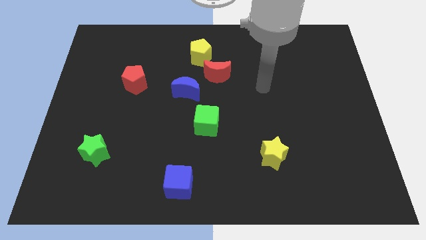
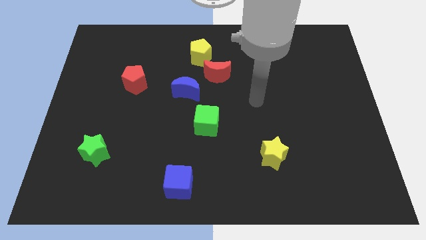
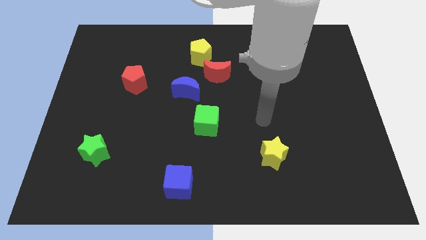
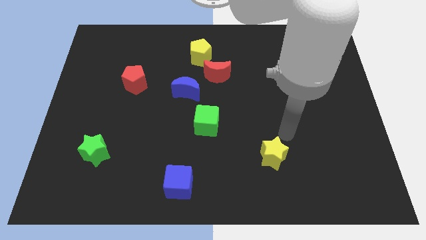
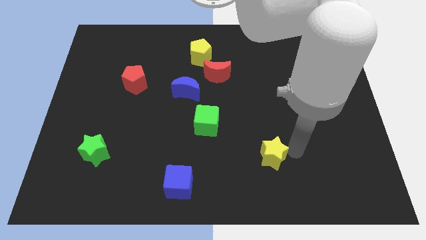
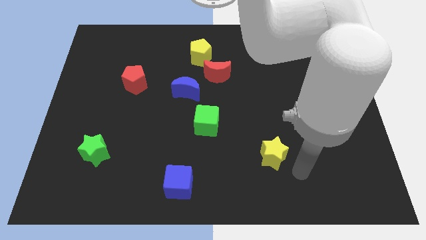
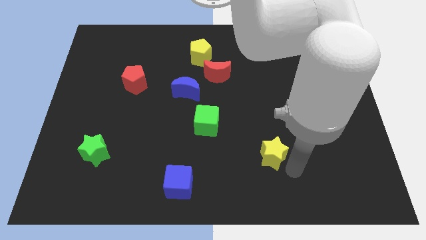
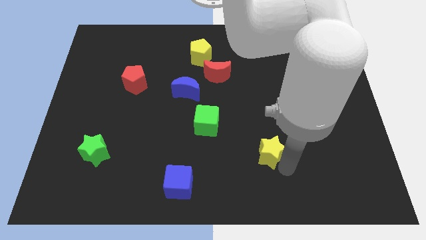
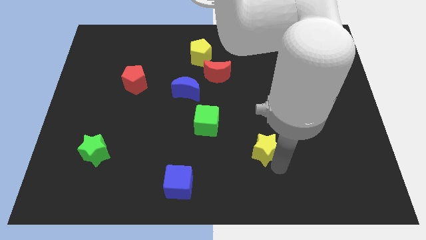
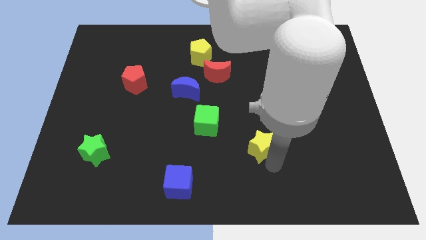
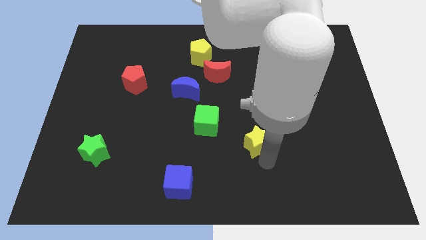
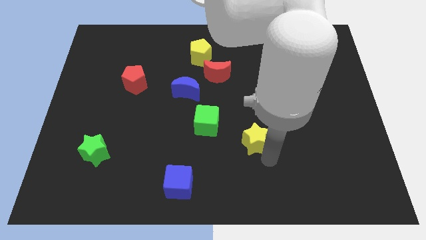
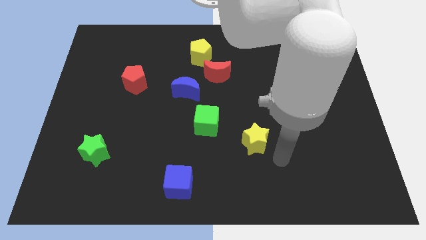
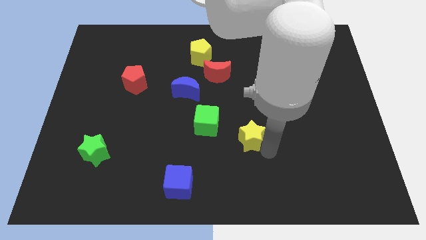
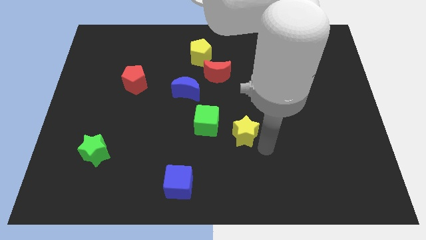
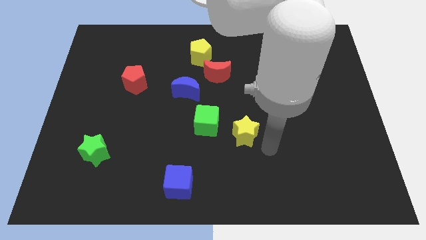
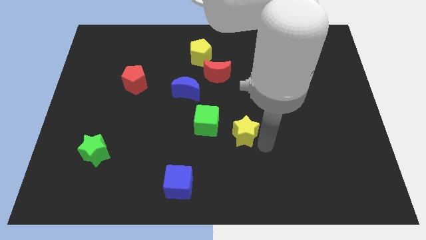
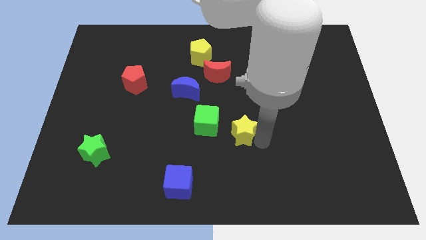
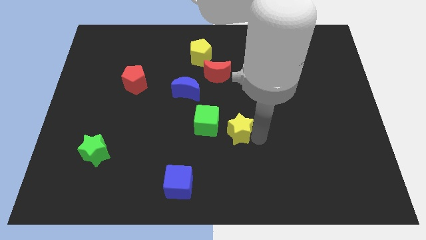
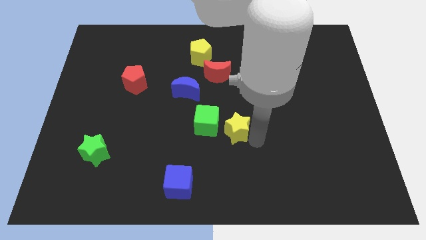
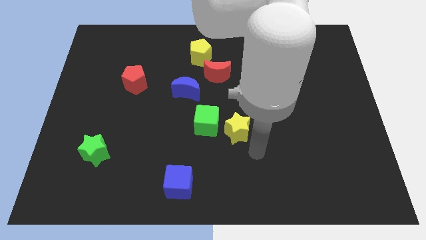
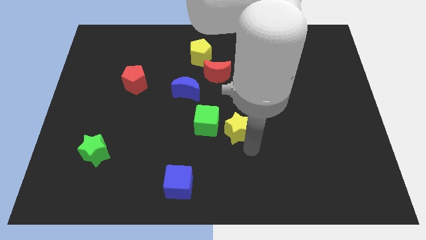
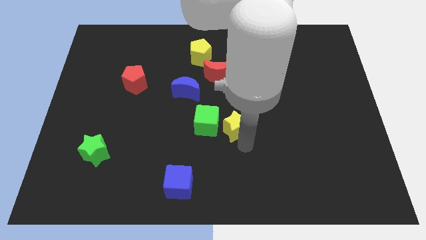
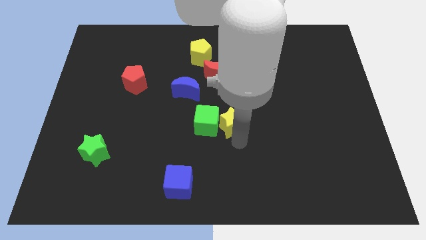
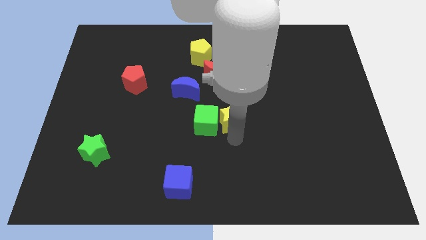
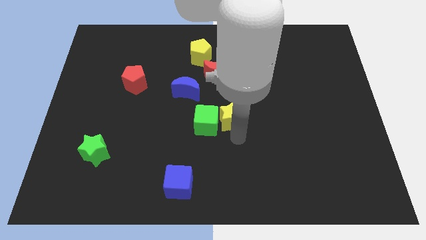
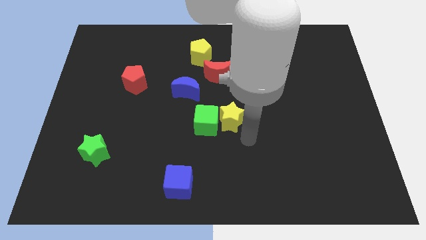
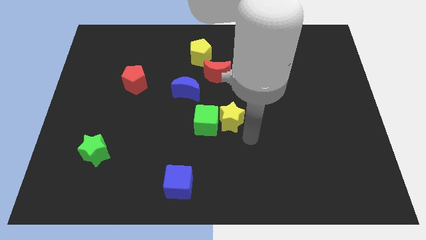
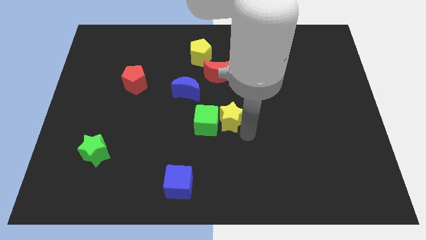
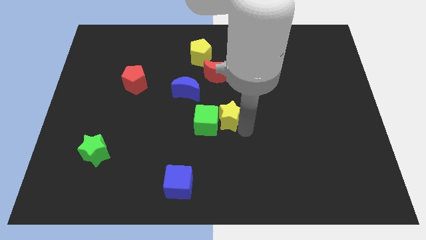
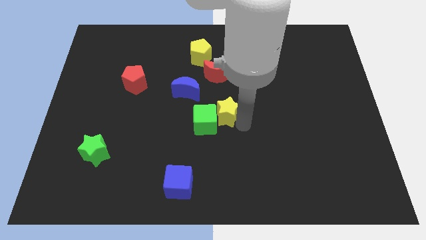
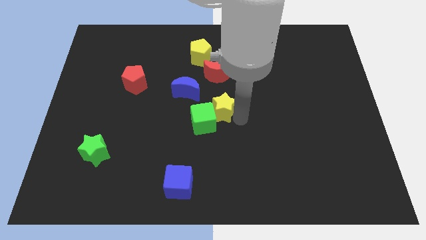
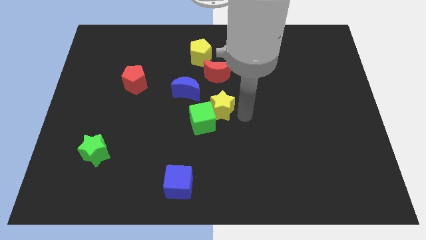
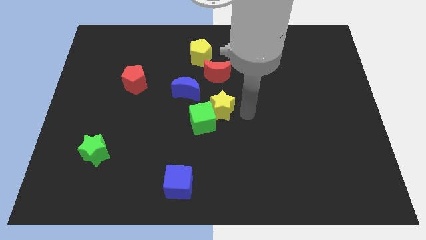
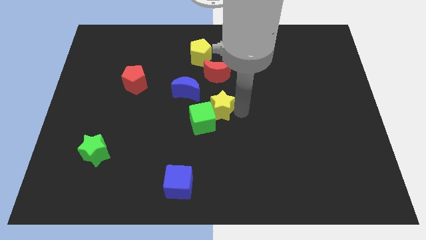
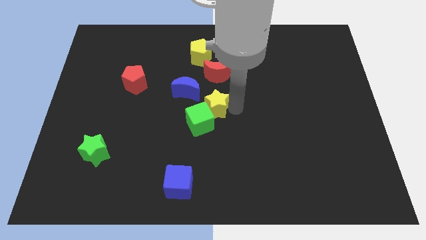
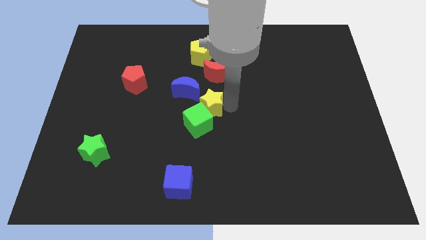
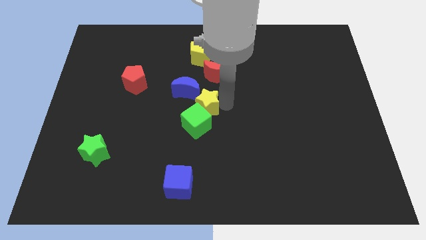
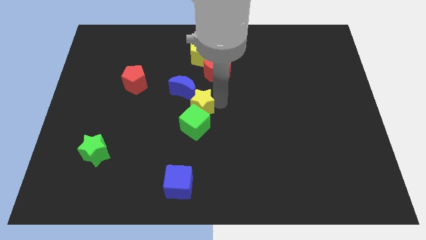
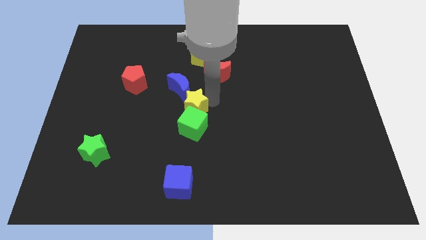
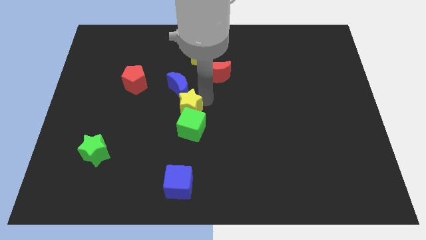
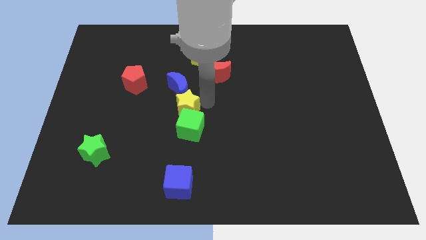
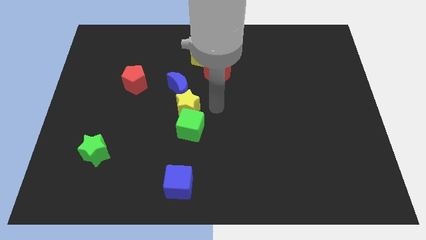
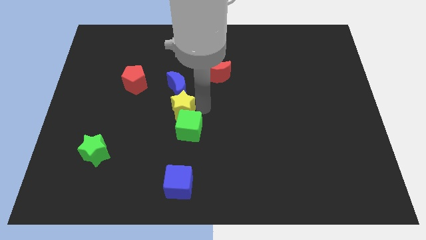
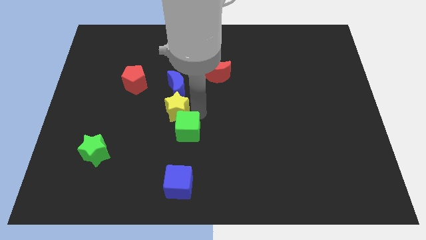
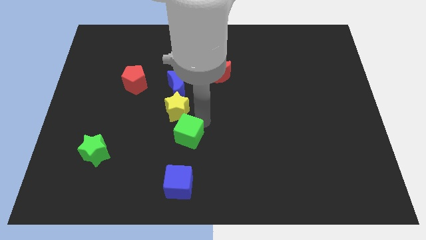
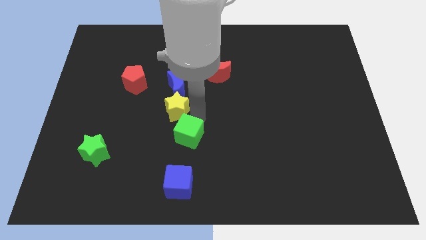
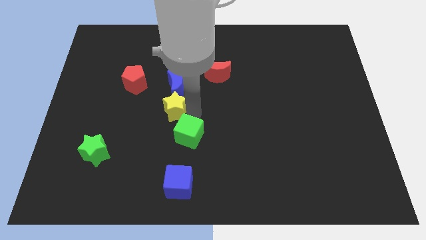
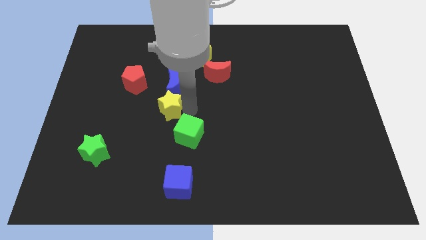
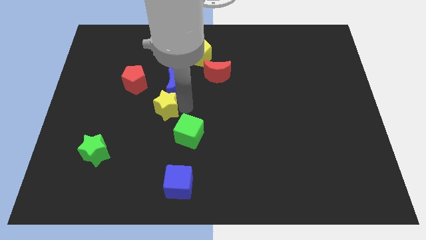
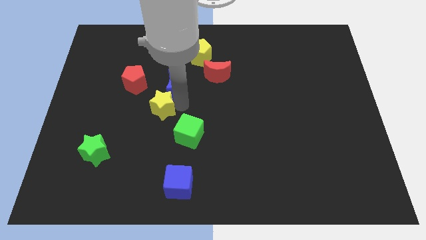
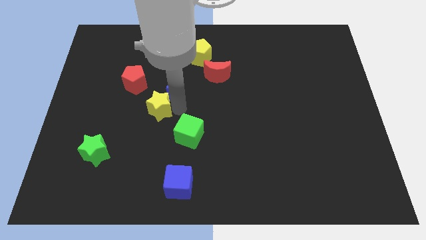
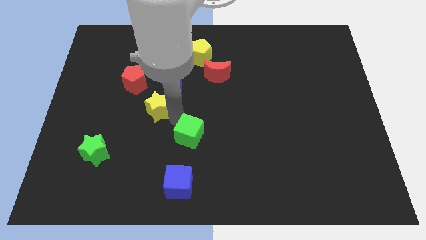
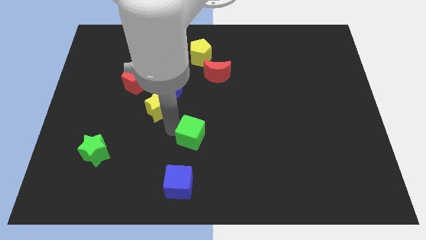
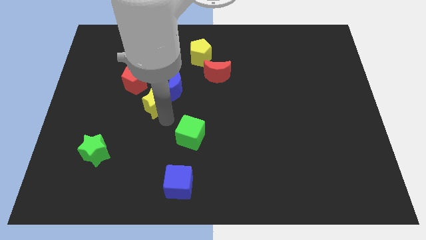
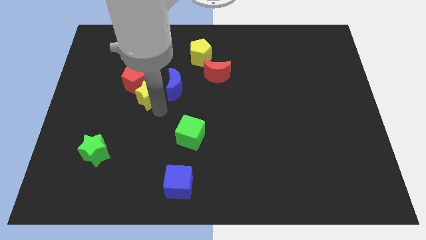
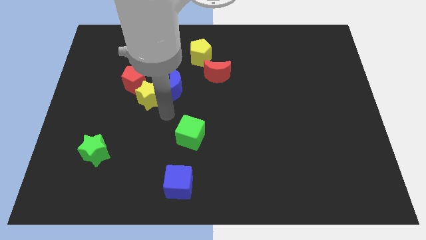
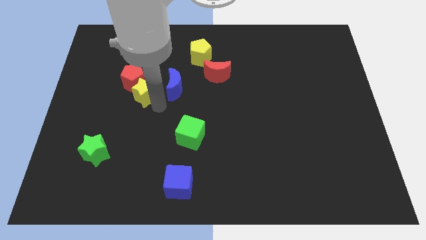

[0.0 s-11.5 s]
slide the yellow star towards the red pentagon

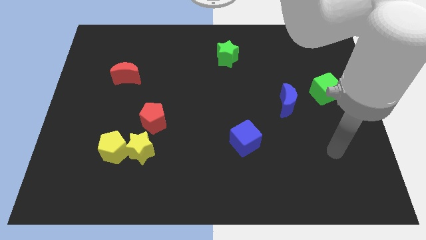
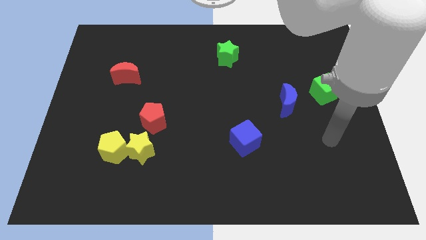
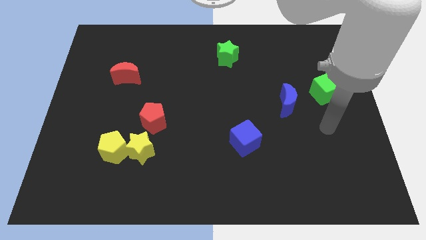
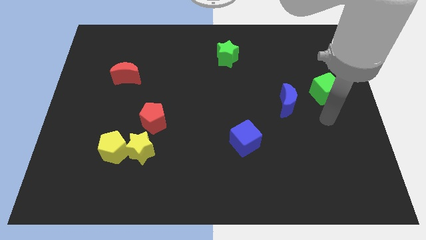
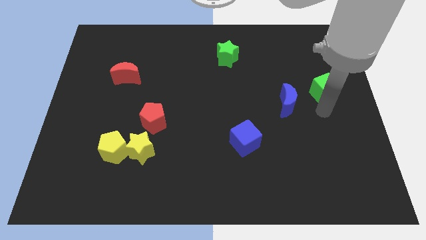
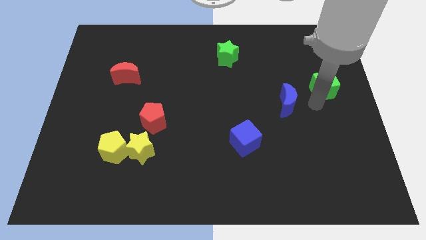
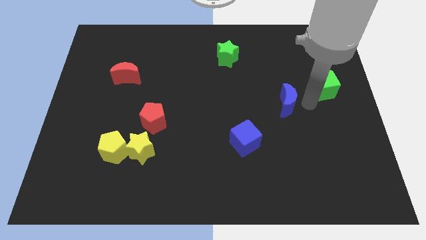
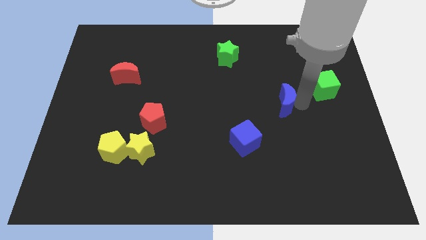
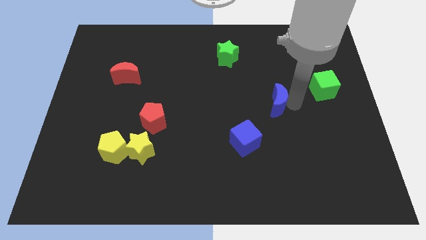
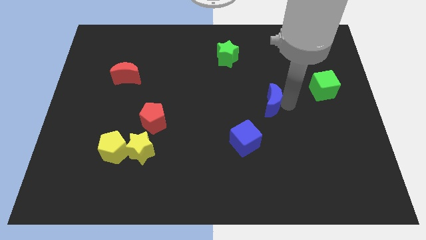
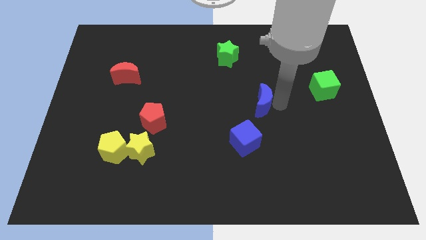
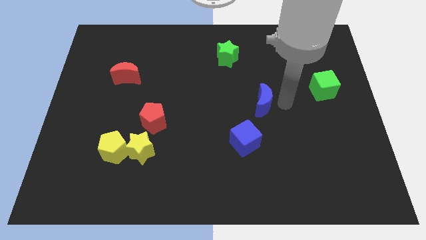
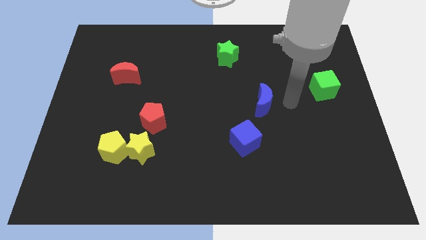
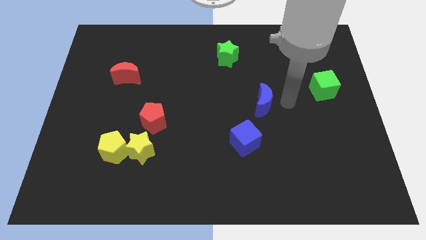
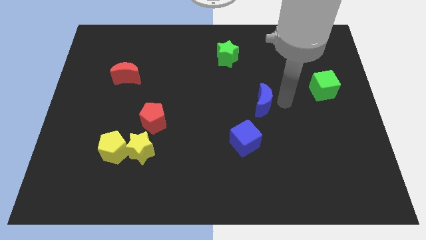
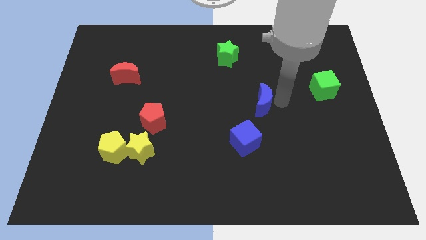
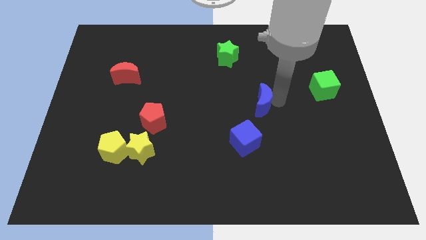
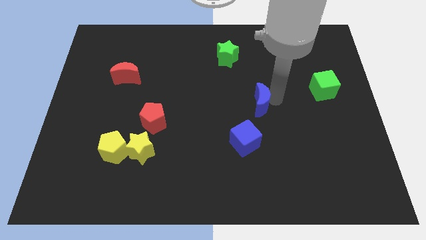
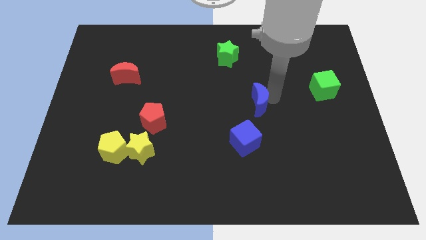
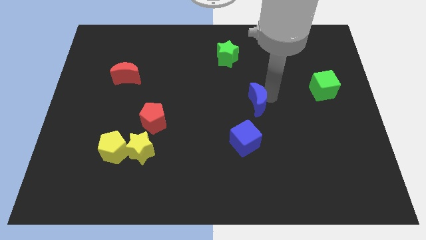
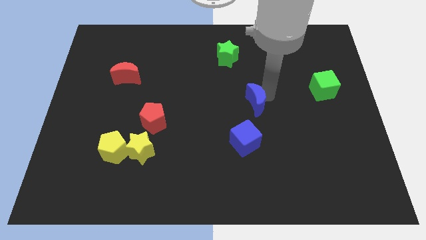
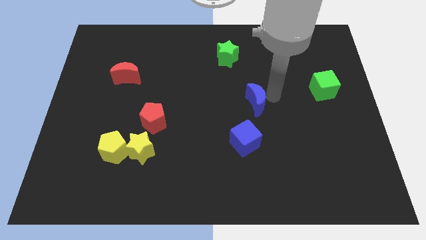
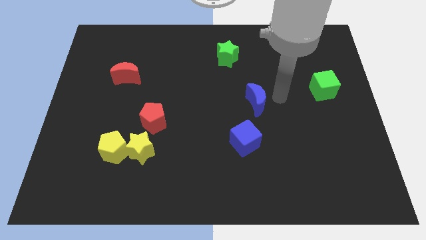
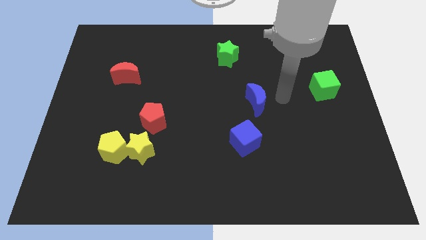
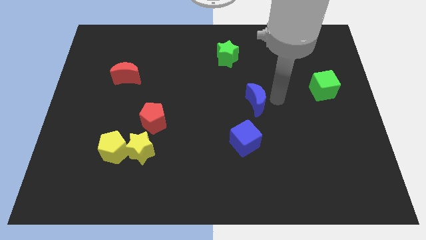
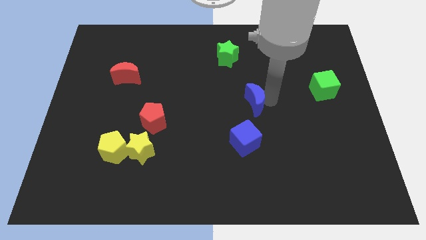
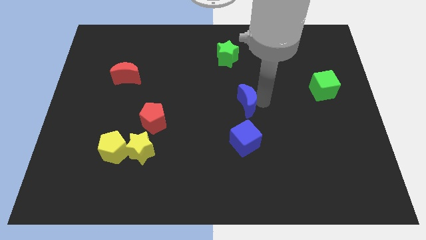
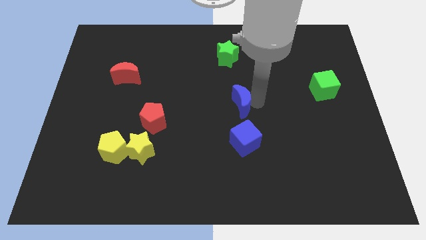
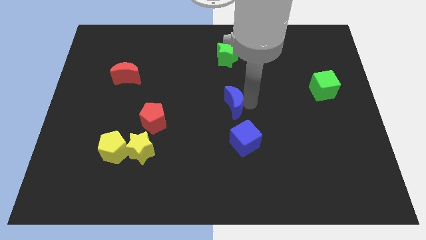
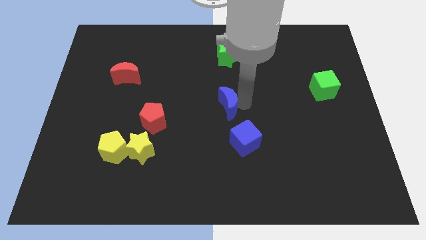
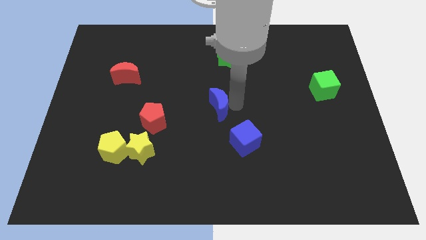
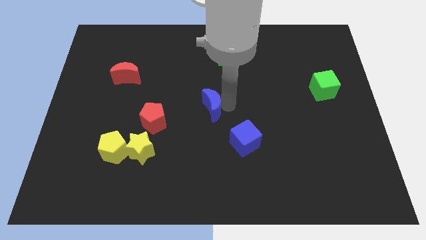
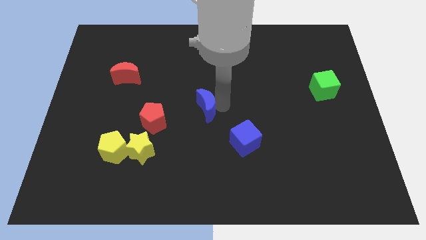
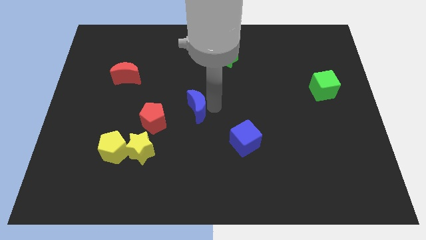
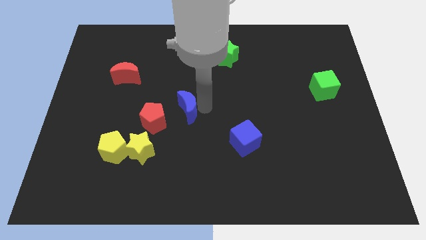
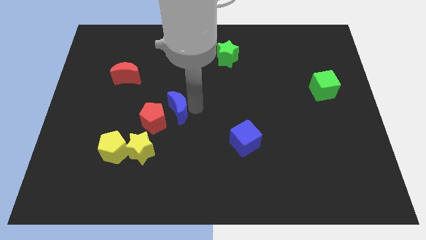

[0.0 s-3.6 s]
move the blue moon to the red pentagon
